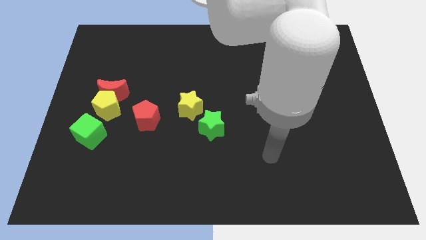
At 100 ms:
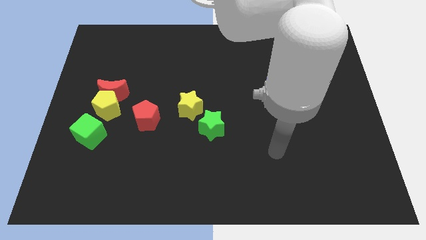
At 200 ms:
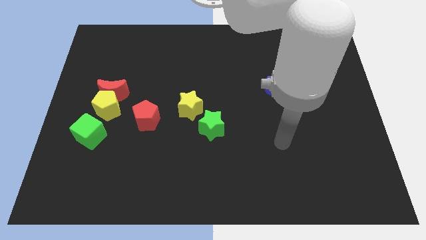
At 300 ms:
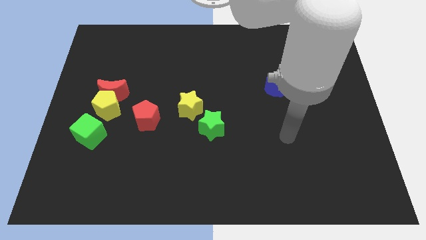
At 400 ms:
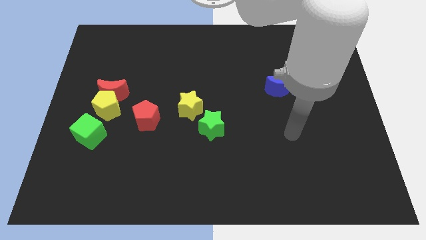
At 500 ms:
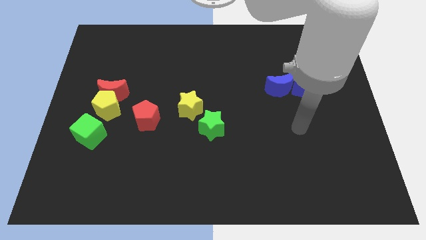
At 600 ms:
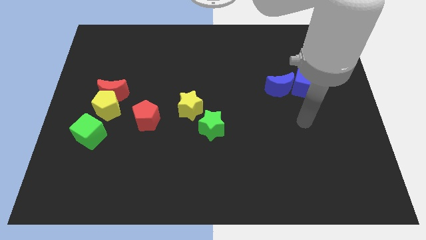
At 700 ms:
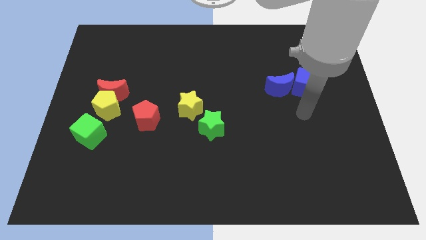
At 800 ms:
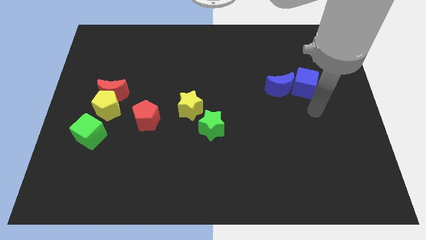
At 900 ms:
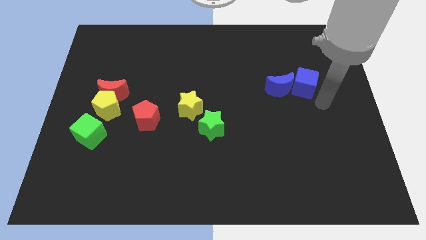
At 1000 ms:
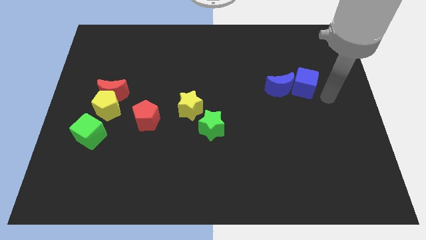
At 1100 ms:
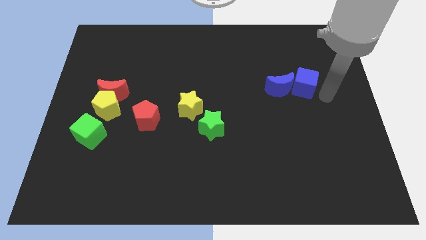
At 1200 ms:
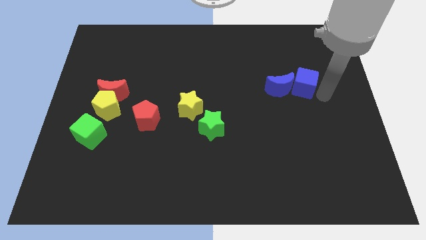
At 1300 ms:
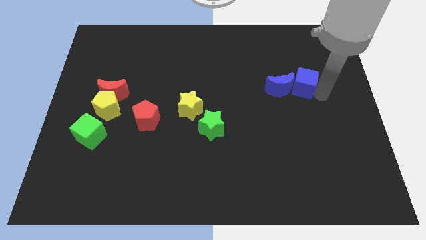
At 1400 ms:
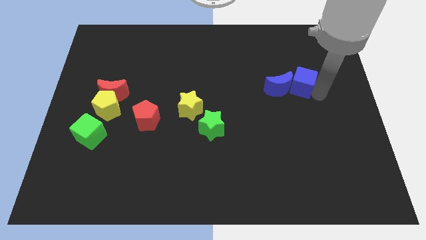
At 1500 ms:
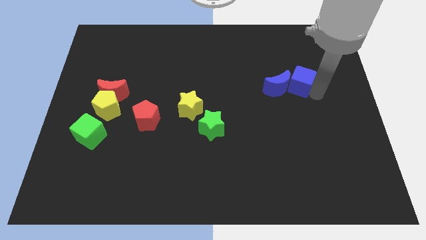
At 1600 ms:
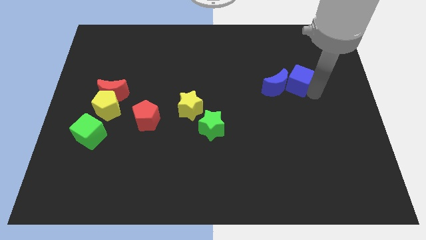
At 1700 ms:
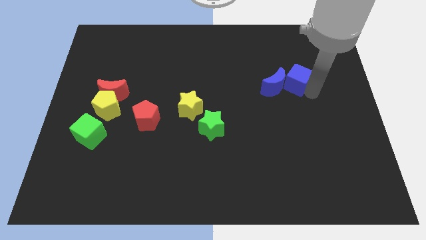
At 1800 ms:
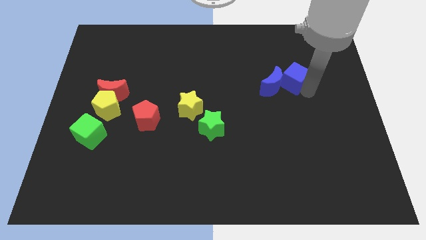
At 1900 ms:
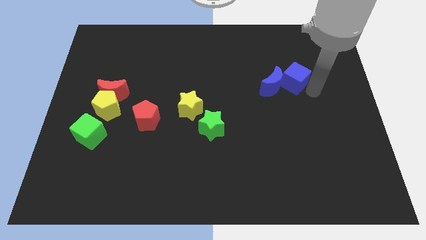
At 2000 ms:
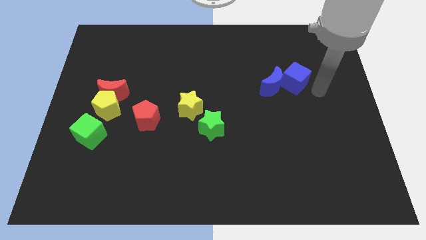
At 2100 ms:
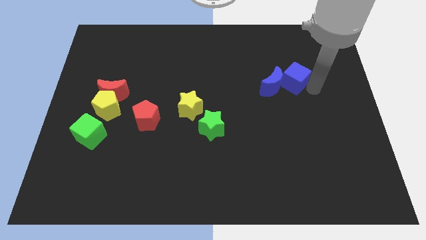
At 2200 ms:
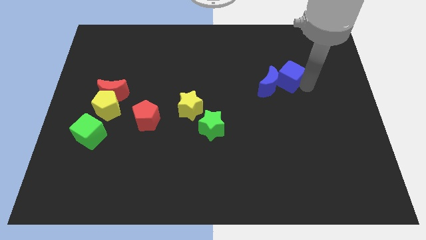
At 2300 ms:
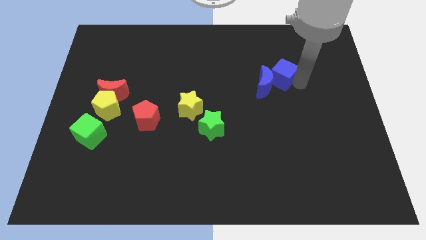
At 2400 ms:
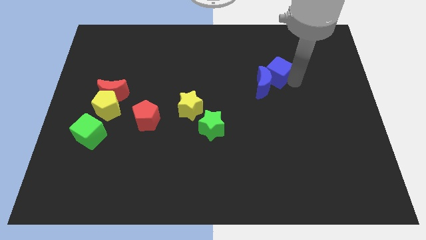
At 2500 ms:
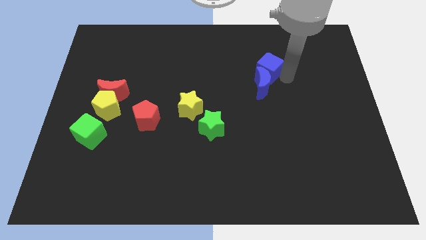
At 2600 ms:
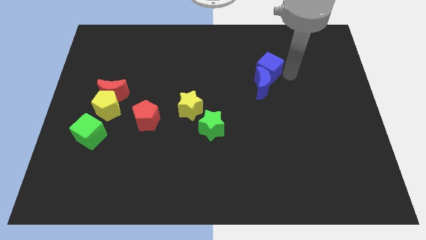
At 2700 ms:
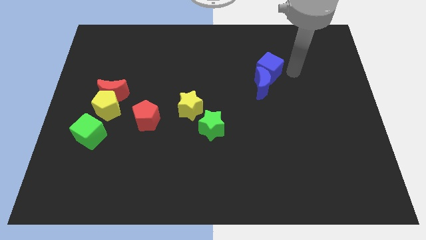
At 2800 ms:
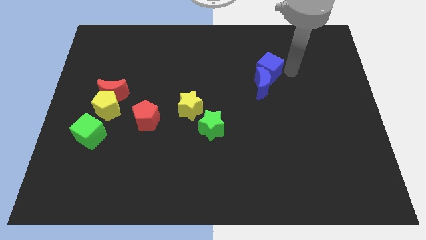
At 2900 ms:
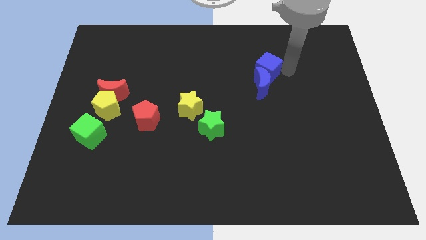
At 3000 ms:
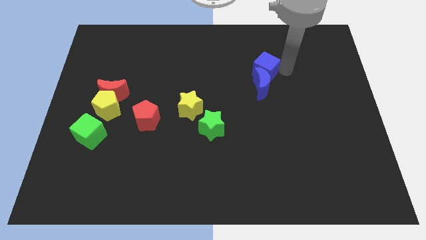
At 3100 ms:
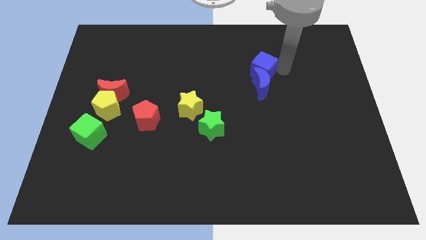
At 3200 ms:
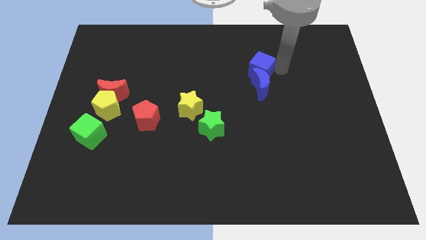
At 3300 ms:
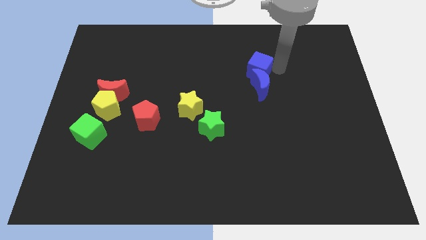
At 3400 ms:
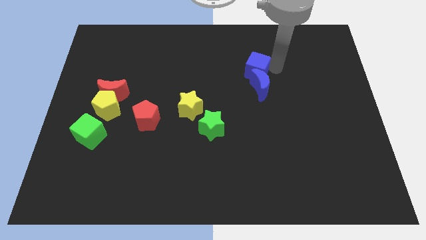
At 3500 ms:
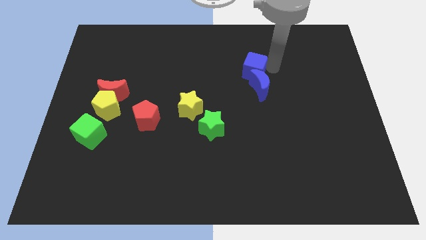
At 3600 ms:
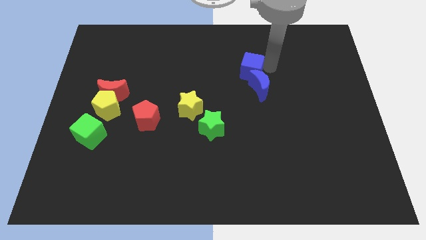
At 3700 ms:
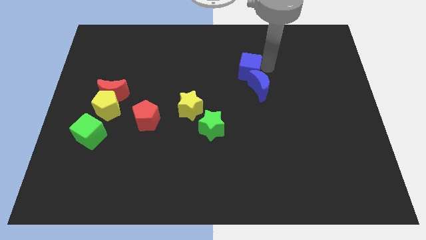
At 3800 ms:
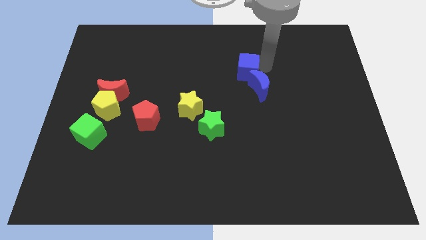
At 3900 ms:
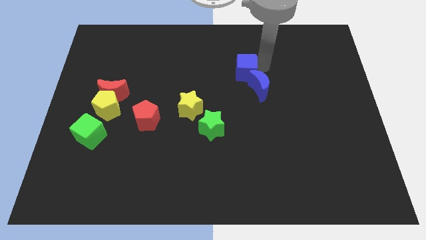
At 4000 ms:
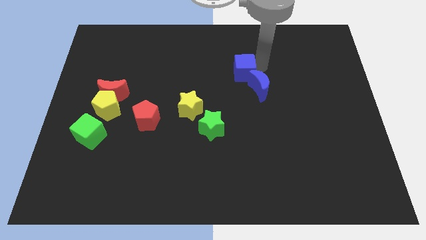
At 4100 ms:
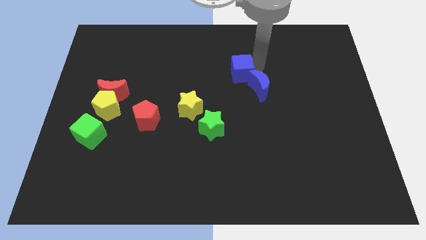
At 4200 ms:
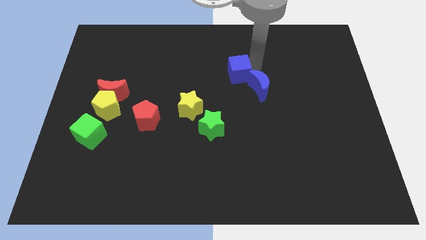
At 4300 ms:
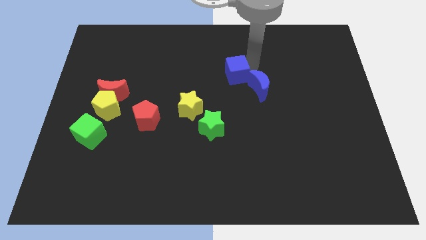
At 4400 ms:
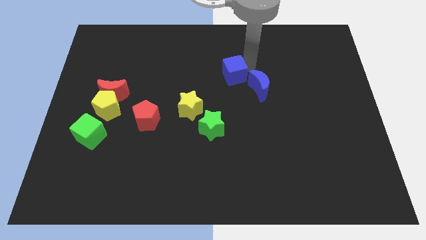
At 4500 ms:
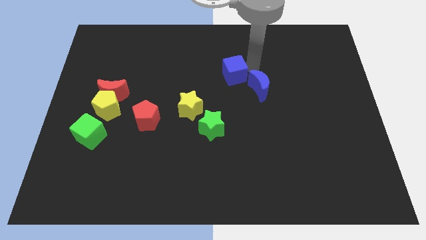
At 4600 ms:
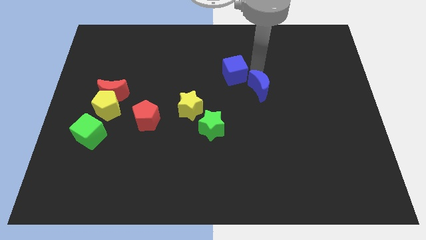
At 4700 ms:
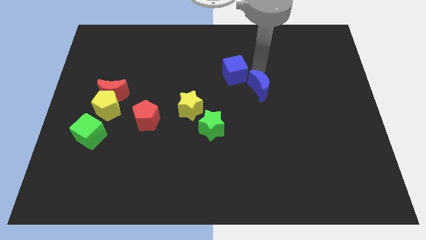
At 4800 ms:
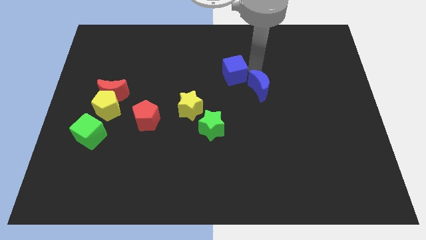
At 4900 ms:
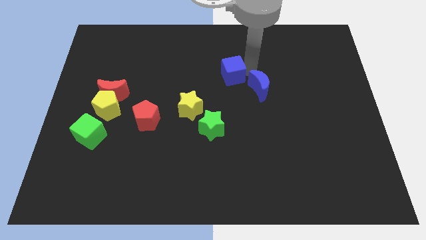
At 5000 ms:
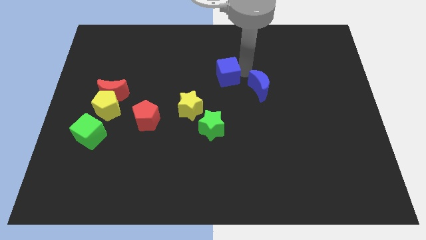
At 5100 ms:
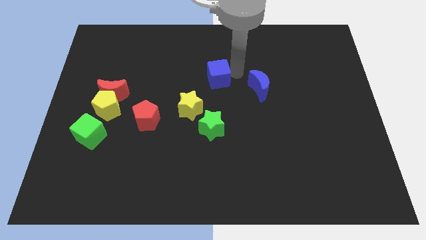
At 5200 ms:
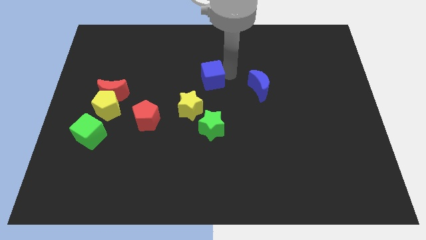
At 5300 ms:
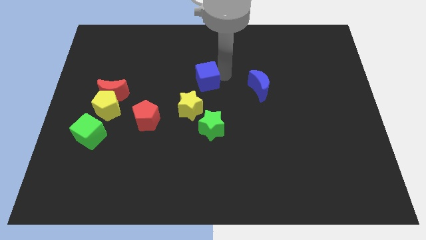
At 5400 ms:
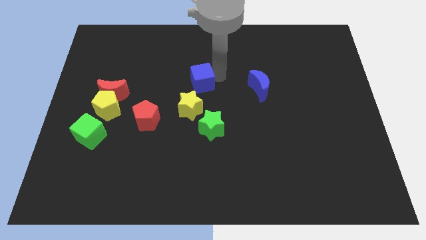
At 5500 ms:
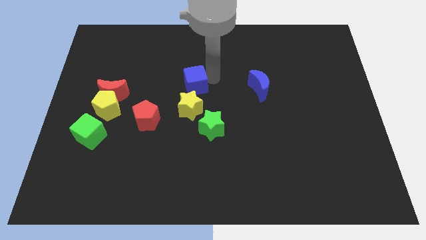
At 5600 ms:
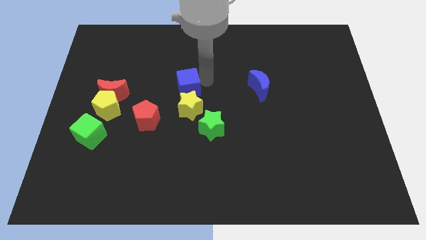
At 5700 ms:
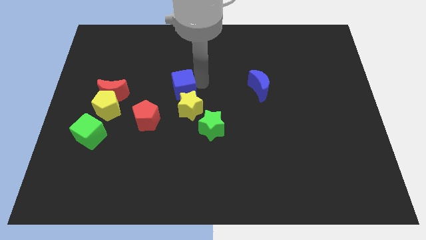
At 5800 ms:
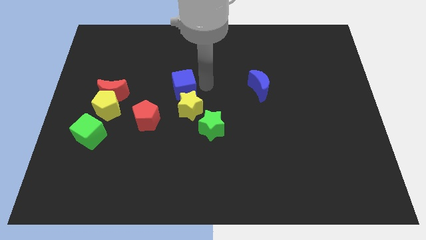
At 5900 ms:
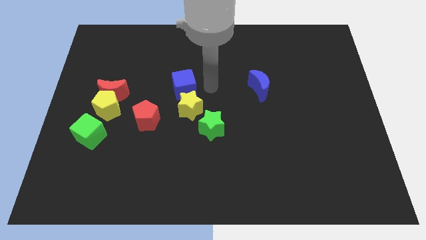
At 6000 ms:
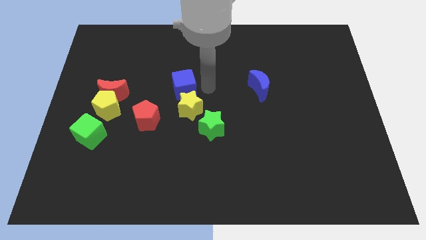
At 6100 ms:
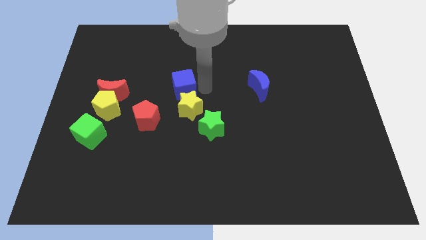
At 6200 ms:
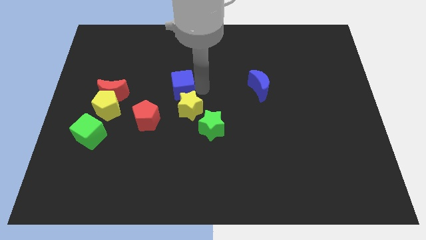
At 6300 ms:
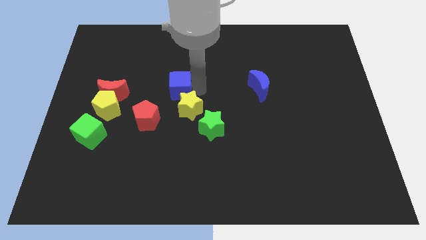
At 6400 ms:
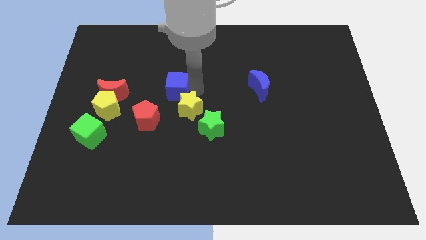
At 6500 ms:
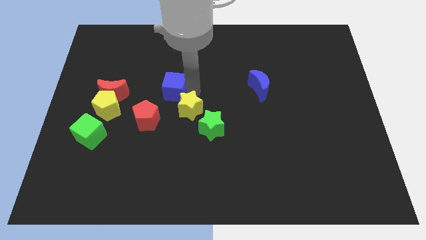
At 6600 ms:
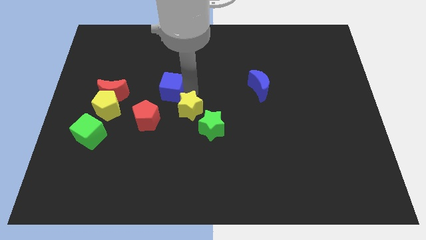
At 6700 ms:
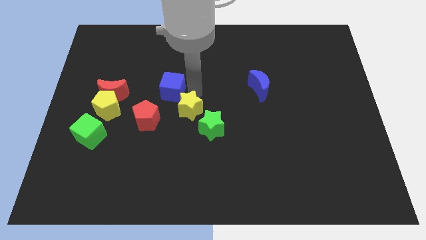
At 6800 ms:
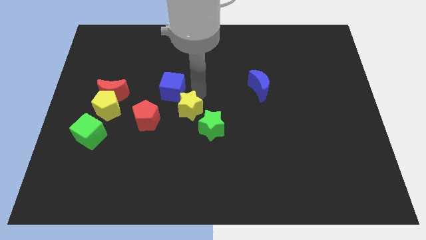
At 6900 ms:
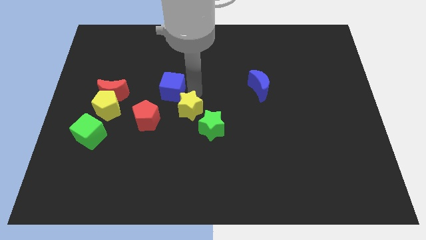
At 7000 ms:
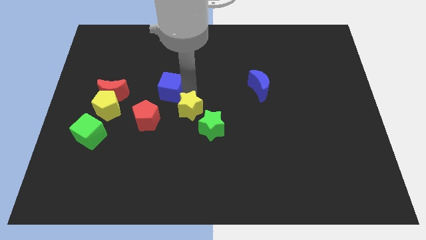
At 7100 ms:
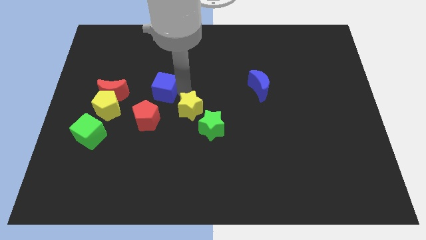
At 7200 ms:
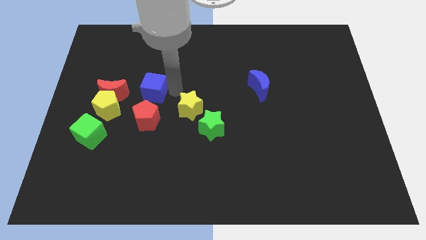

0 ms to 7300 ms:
slide the blue cube diagonally up and to the right of the yellow pentagon

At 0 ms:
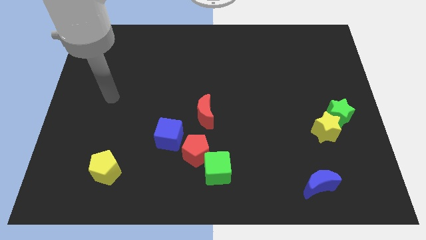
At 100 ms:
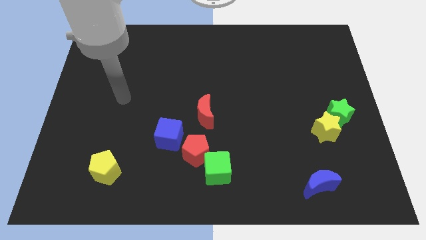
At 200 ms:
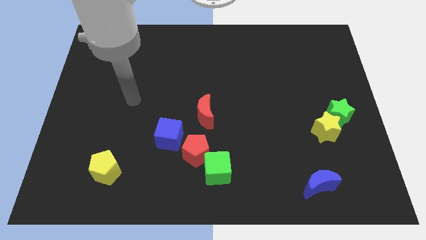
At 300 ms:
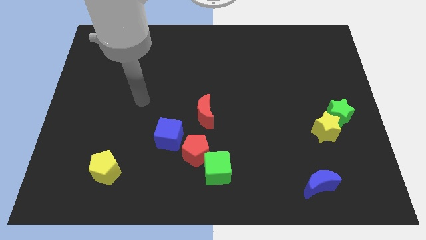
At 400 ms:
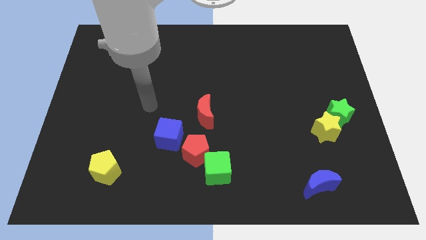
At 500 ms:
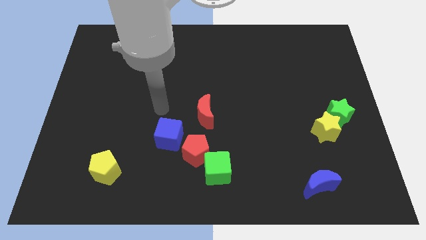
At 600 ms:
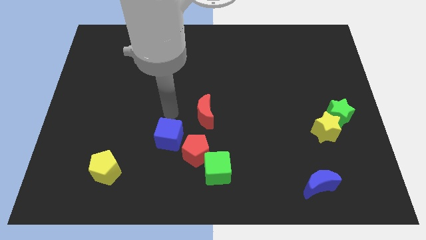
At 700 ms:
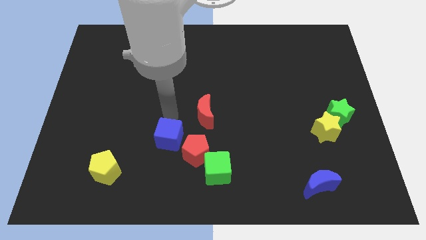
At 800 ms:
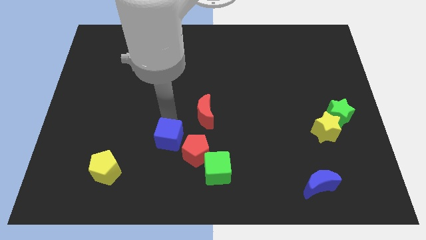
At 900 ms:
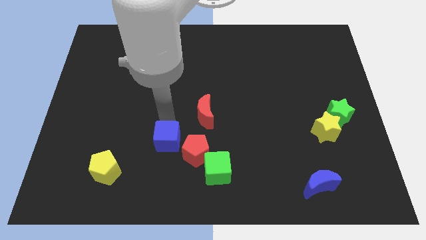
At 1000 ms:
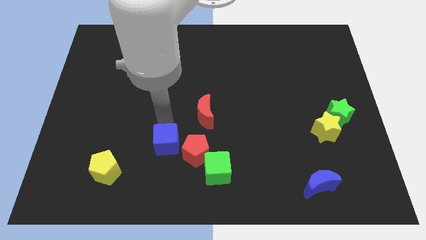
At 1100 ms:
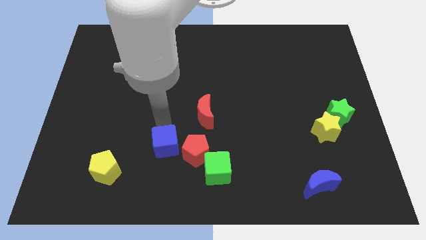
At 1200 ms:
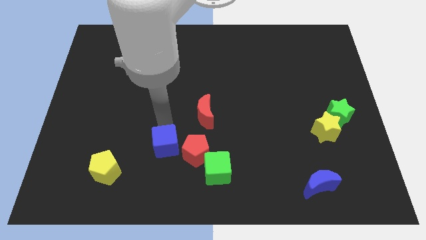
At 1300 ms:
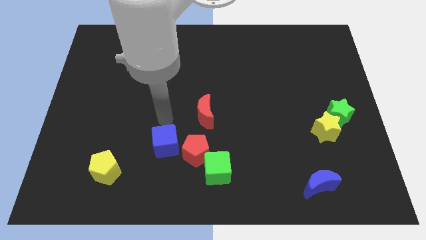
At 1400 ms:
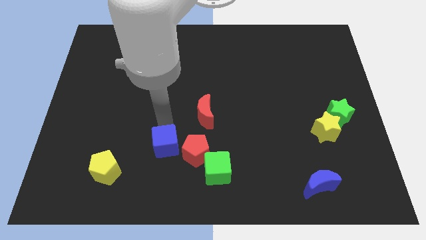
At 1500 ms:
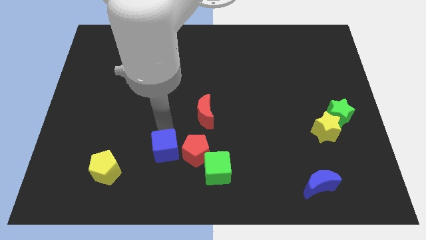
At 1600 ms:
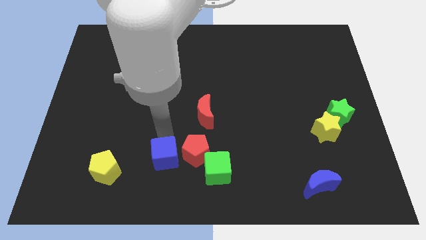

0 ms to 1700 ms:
push the blue cube to the left side of the green cube
